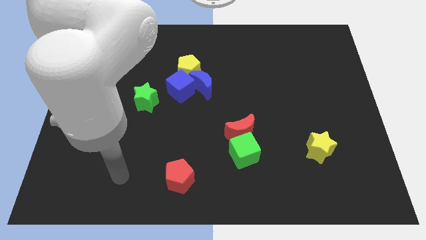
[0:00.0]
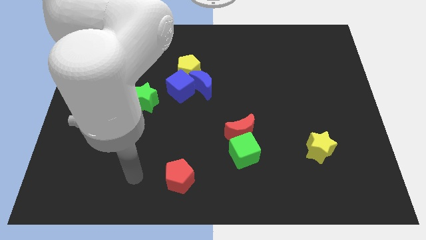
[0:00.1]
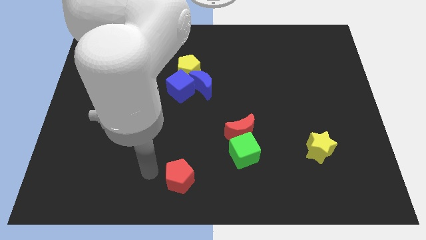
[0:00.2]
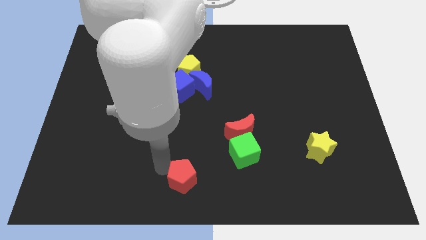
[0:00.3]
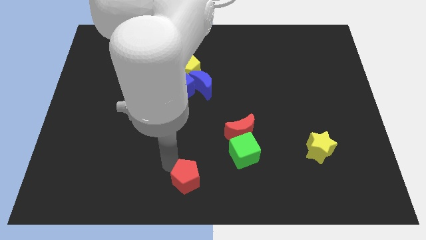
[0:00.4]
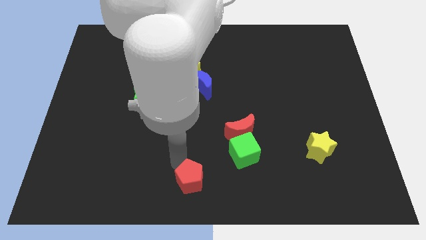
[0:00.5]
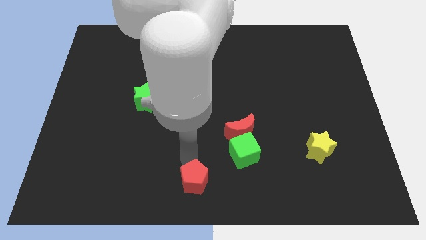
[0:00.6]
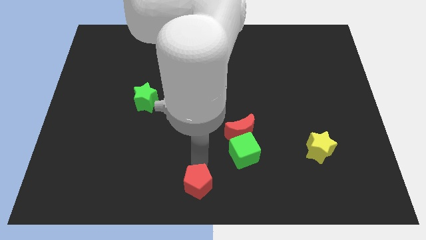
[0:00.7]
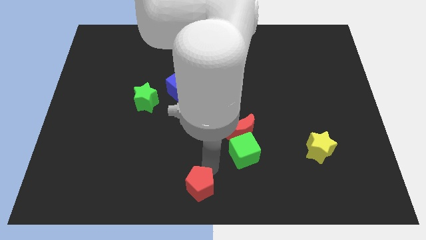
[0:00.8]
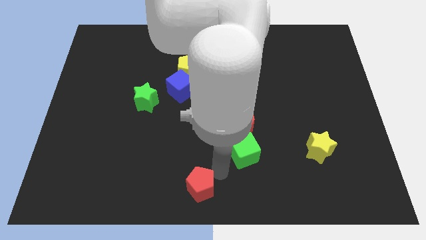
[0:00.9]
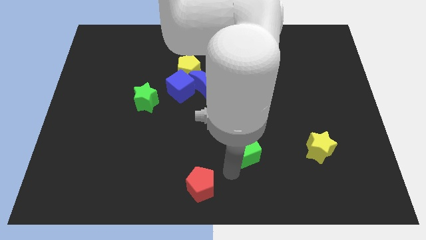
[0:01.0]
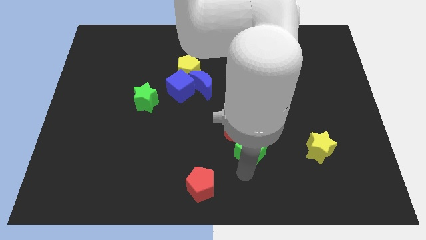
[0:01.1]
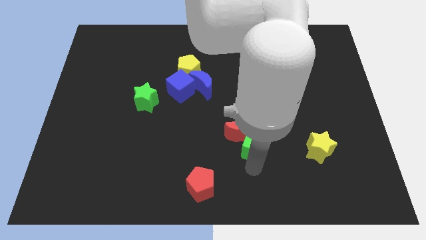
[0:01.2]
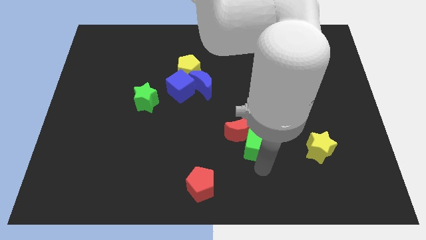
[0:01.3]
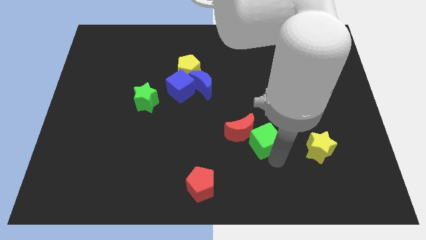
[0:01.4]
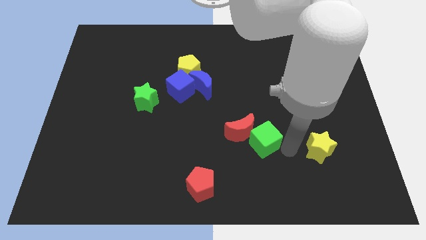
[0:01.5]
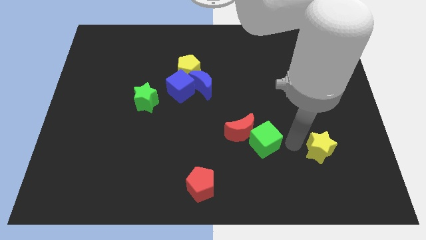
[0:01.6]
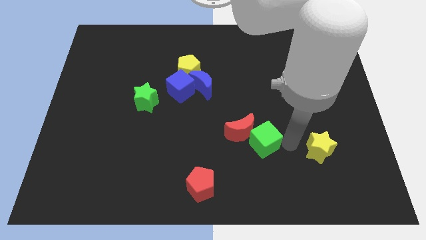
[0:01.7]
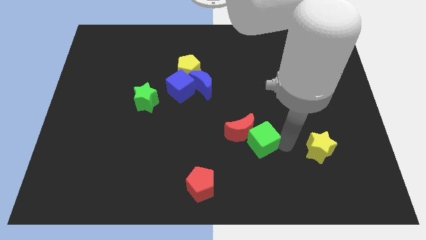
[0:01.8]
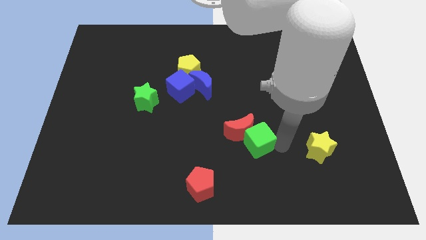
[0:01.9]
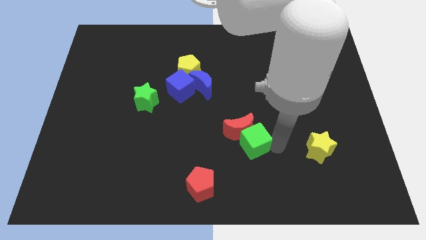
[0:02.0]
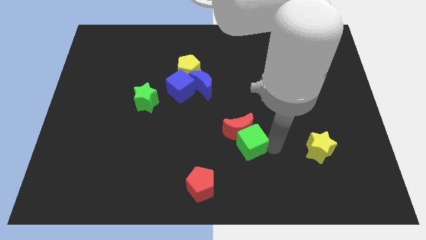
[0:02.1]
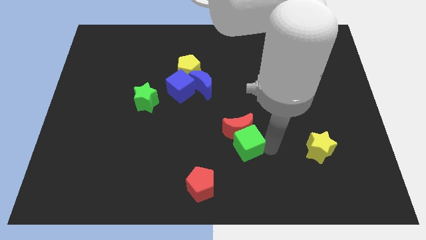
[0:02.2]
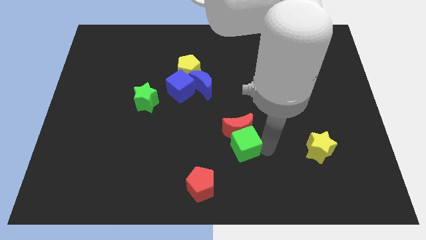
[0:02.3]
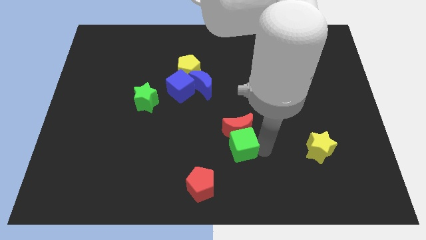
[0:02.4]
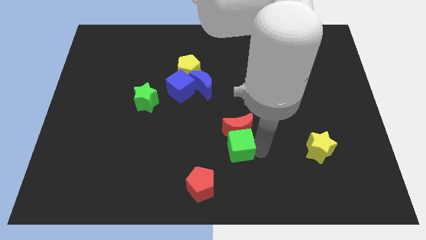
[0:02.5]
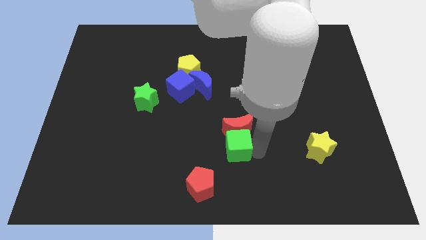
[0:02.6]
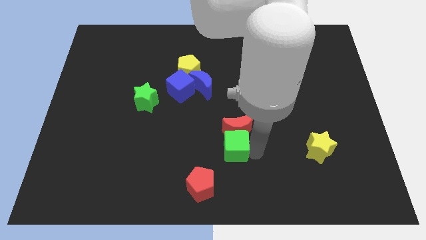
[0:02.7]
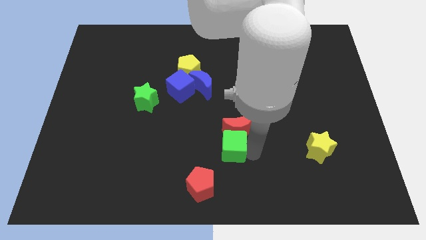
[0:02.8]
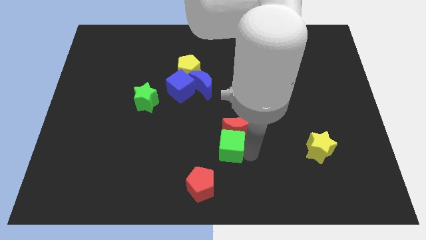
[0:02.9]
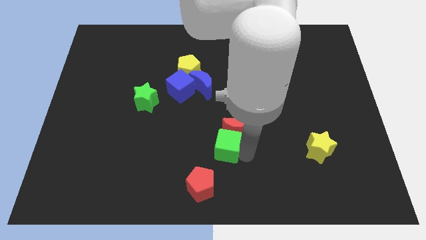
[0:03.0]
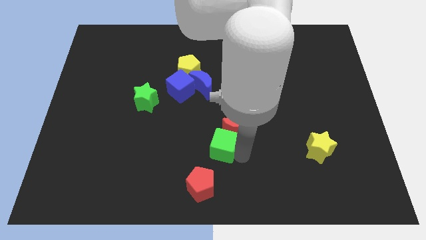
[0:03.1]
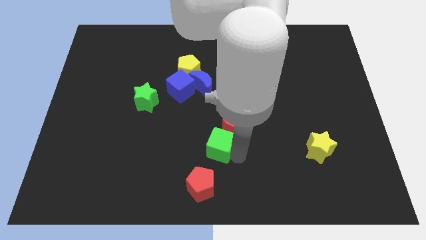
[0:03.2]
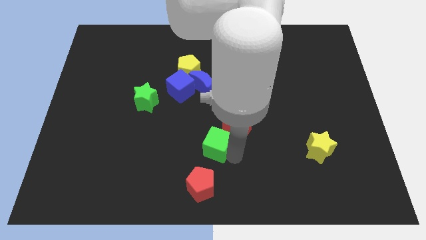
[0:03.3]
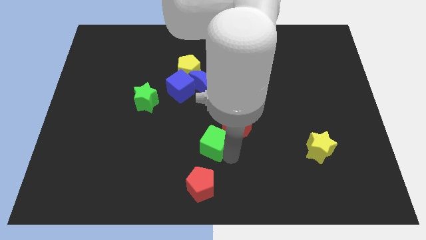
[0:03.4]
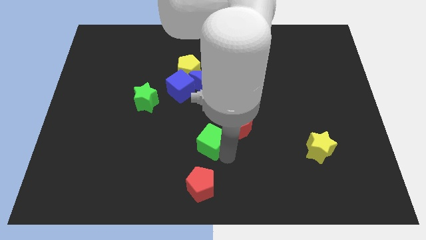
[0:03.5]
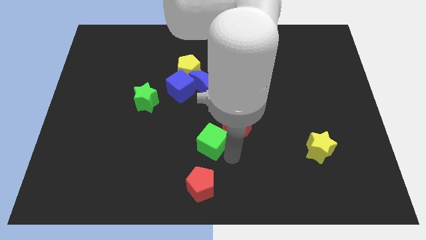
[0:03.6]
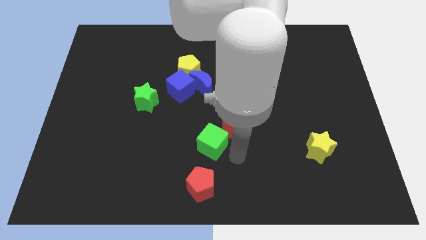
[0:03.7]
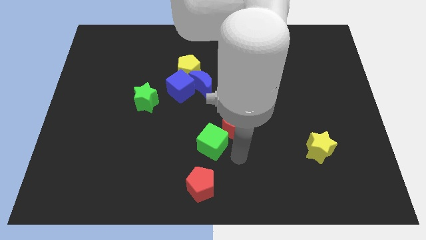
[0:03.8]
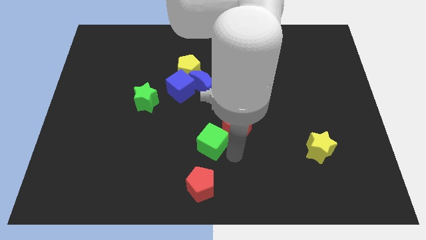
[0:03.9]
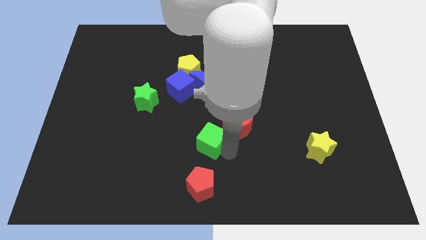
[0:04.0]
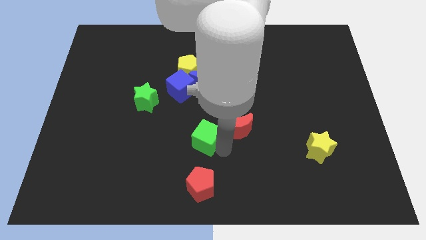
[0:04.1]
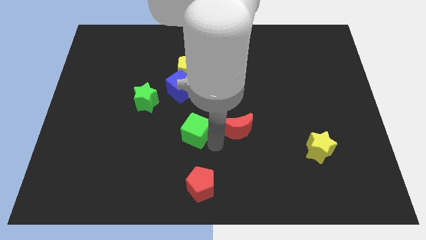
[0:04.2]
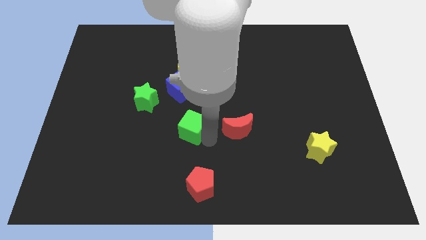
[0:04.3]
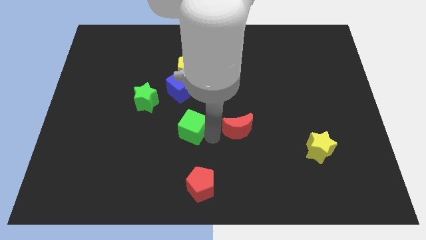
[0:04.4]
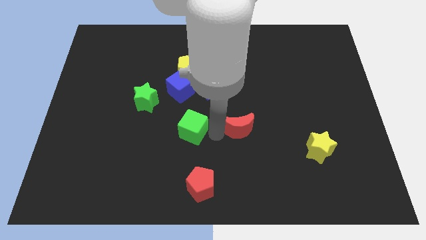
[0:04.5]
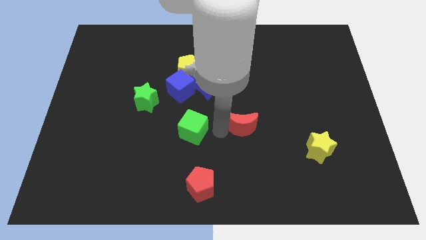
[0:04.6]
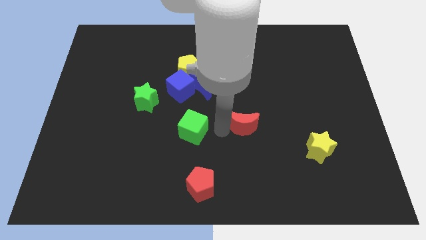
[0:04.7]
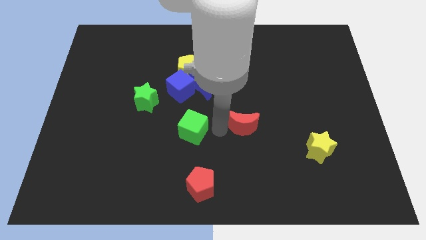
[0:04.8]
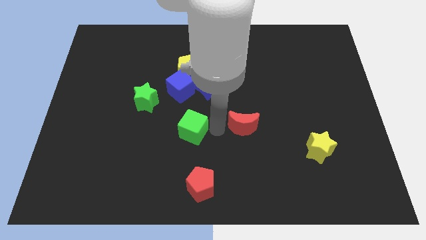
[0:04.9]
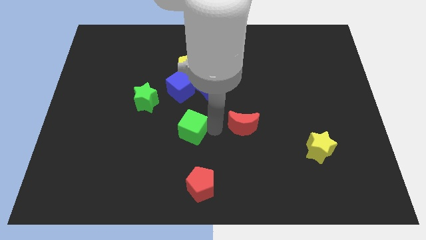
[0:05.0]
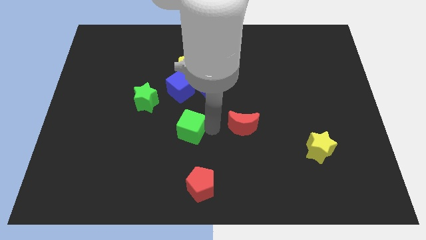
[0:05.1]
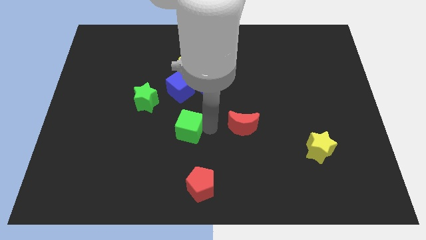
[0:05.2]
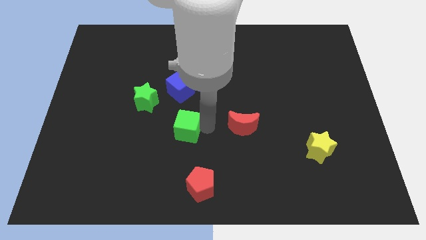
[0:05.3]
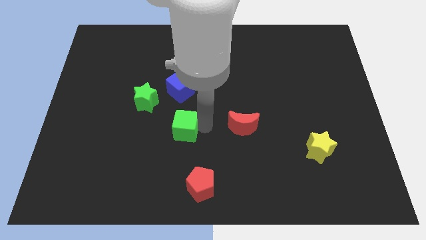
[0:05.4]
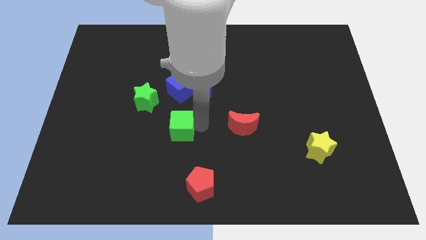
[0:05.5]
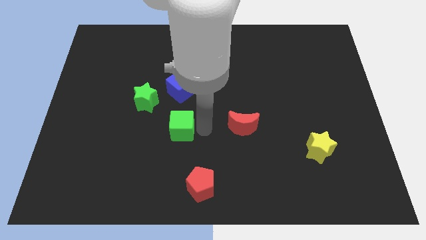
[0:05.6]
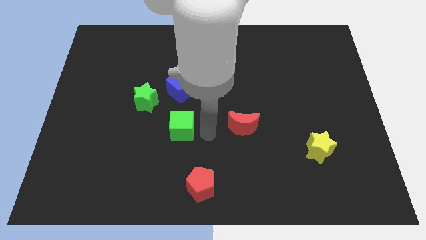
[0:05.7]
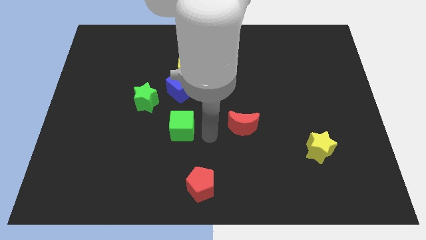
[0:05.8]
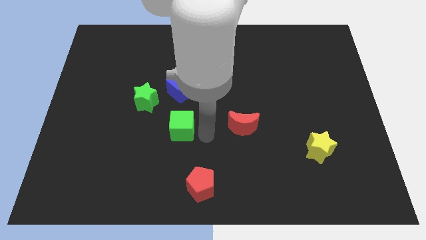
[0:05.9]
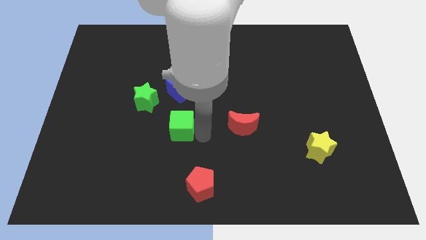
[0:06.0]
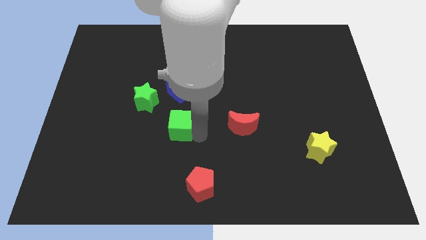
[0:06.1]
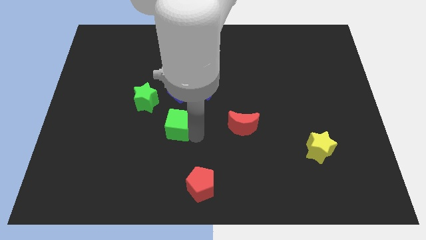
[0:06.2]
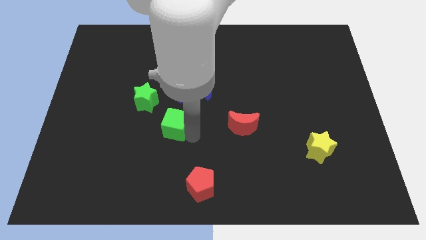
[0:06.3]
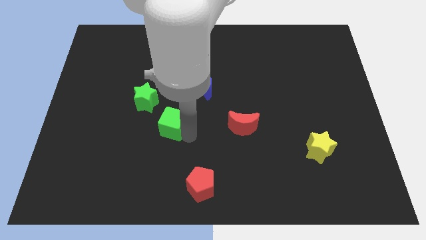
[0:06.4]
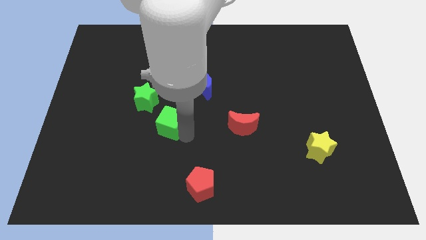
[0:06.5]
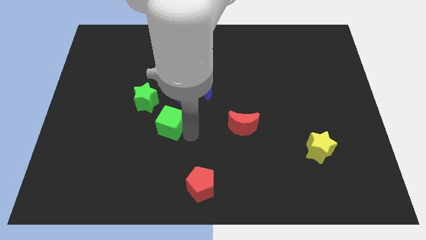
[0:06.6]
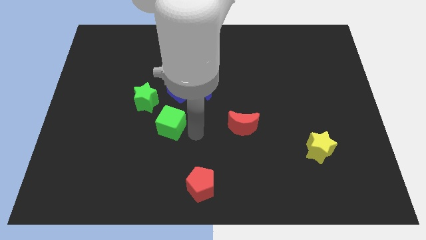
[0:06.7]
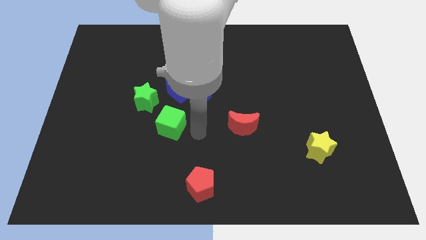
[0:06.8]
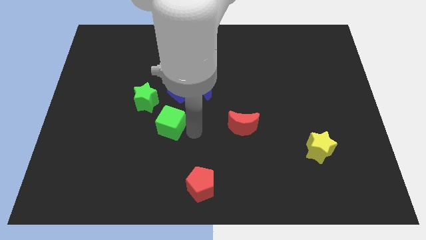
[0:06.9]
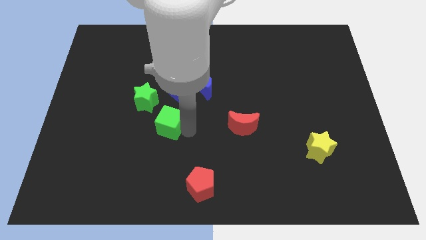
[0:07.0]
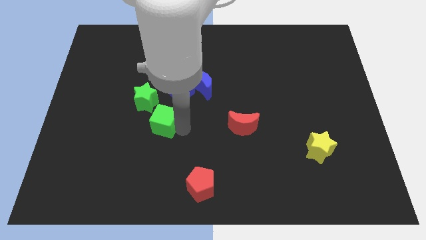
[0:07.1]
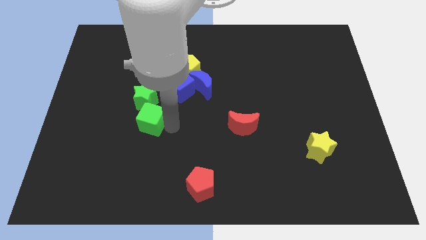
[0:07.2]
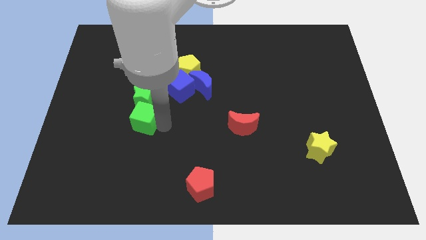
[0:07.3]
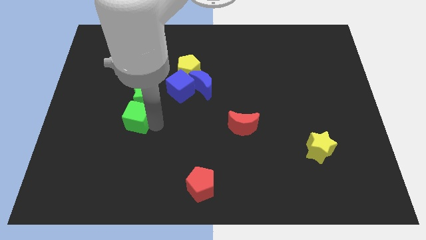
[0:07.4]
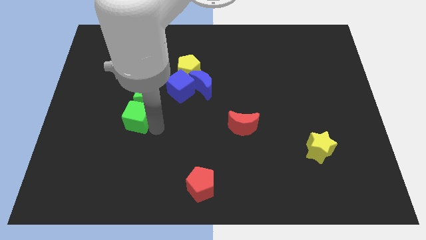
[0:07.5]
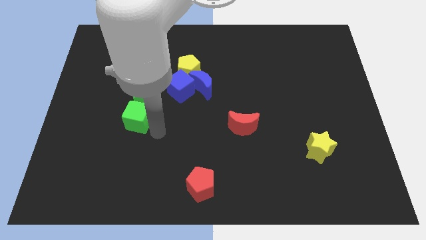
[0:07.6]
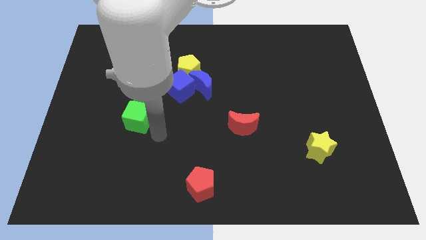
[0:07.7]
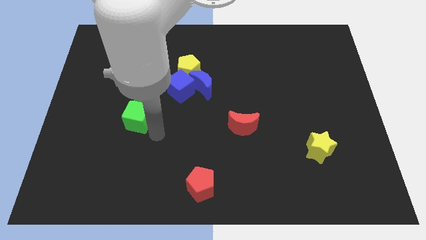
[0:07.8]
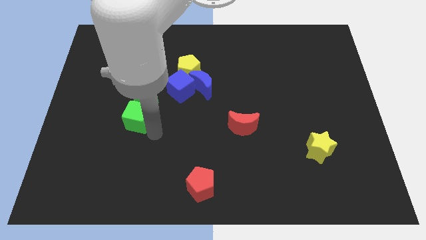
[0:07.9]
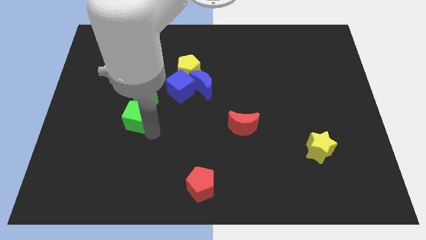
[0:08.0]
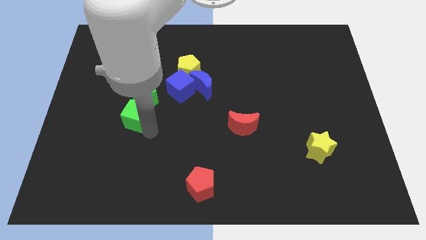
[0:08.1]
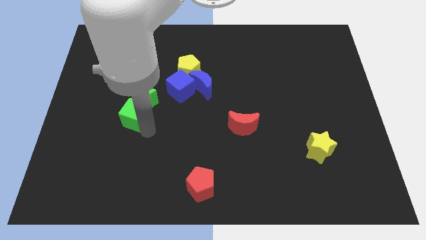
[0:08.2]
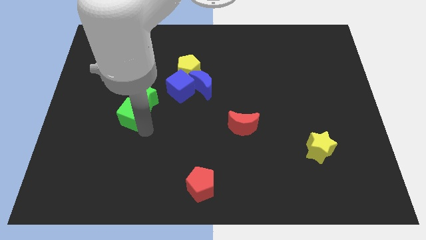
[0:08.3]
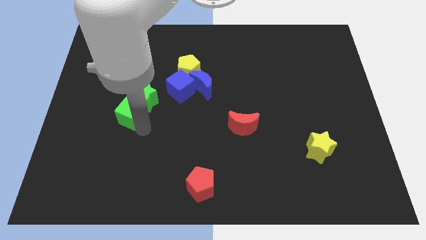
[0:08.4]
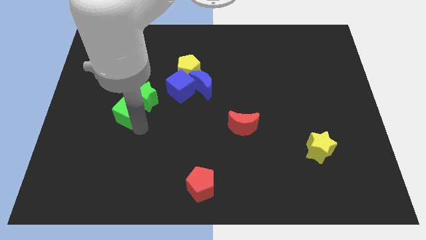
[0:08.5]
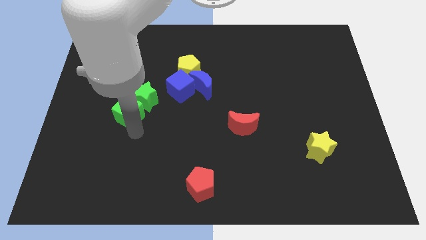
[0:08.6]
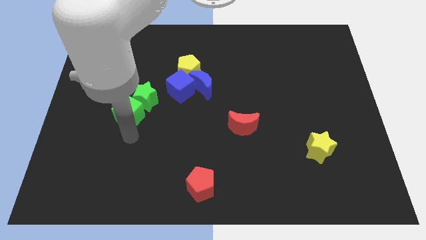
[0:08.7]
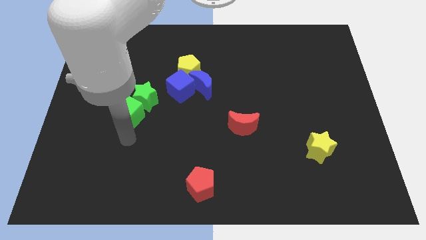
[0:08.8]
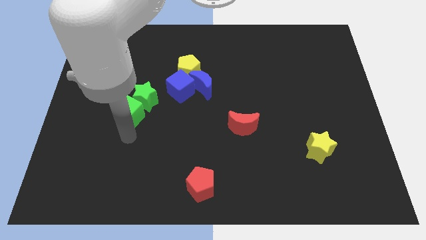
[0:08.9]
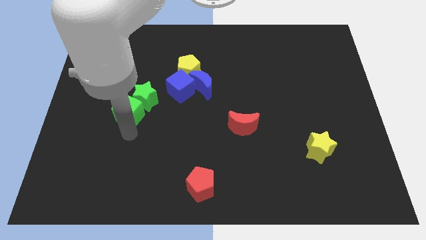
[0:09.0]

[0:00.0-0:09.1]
slide the green cube upwards and then left
